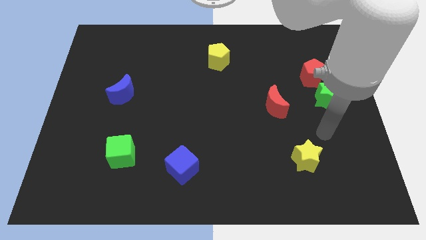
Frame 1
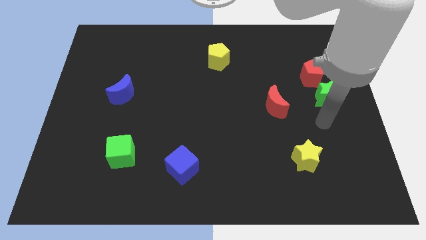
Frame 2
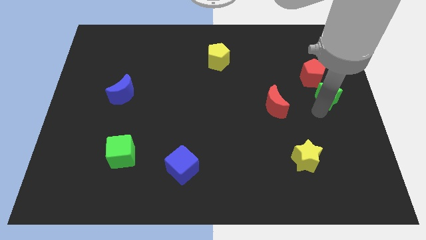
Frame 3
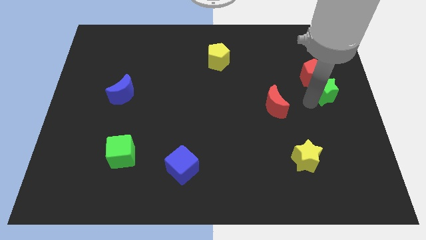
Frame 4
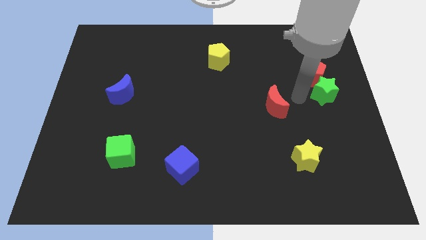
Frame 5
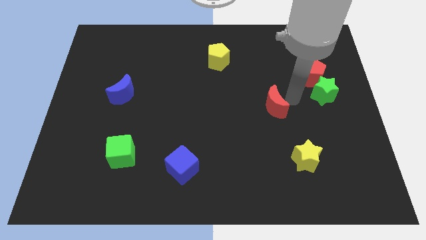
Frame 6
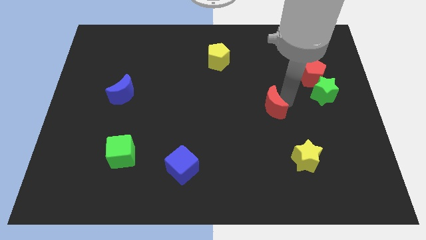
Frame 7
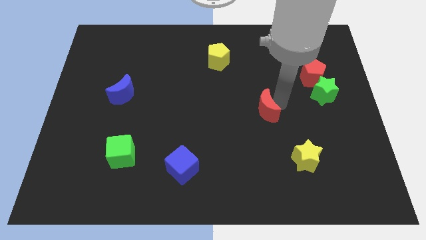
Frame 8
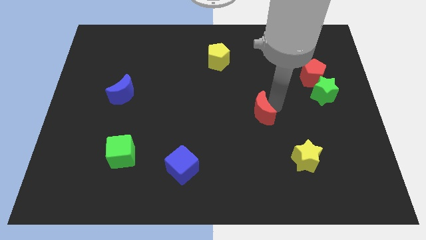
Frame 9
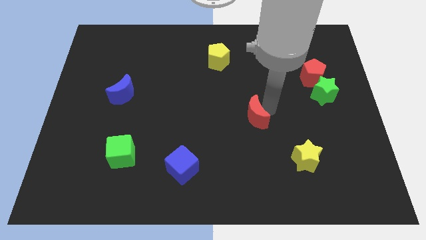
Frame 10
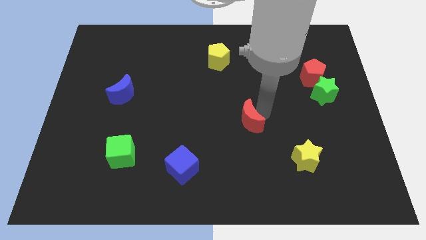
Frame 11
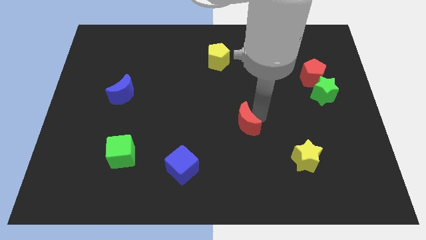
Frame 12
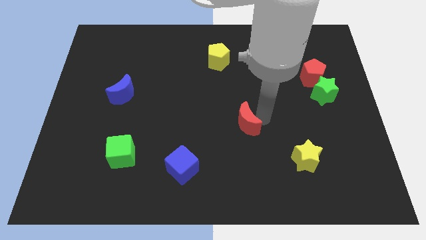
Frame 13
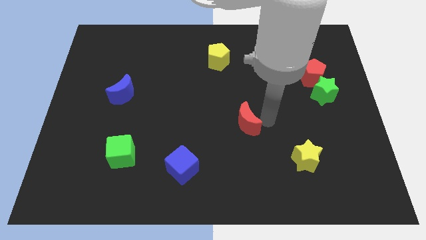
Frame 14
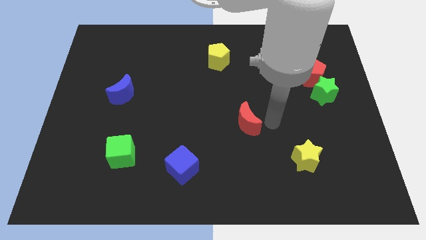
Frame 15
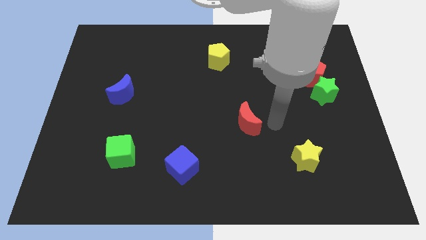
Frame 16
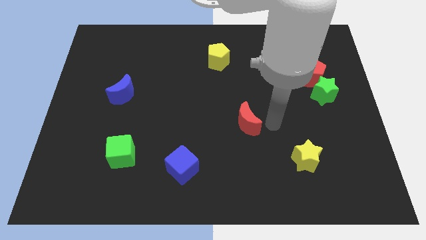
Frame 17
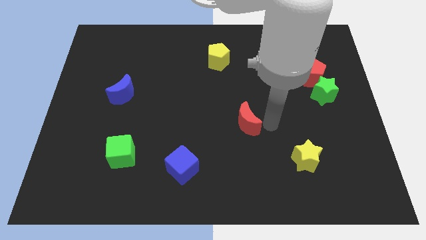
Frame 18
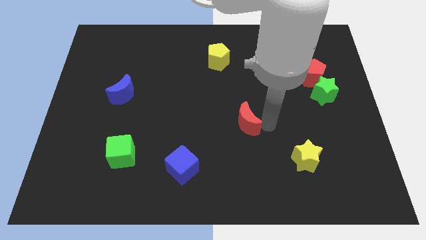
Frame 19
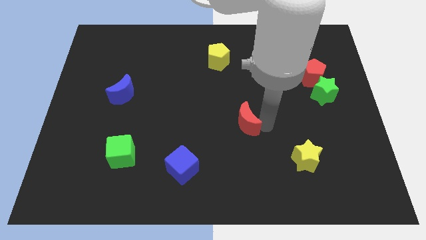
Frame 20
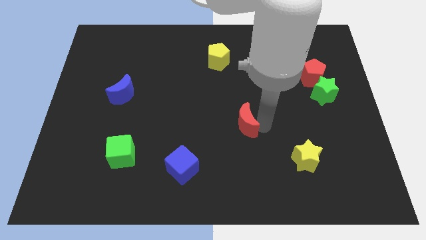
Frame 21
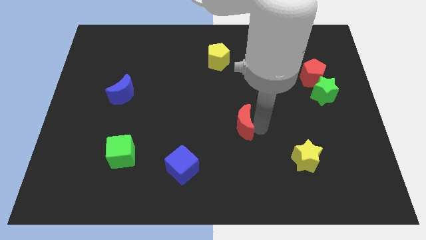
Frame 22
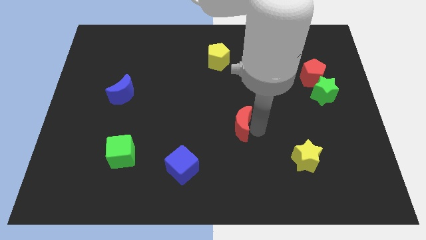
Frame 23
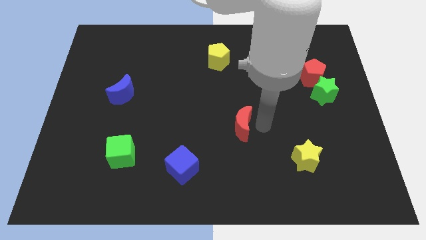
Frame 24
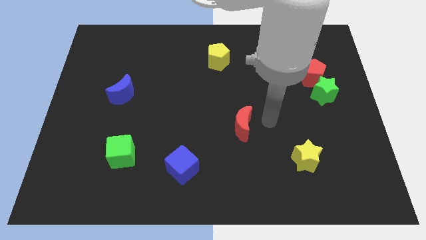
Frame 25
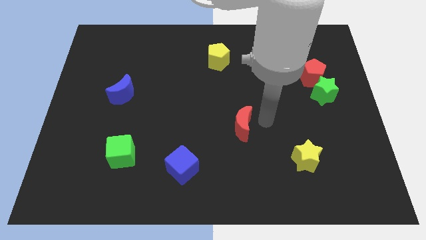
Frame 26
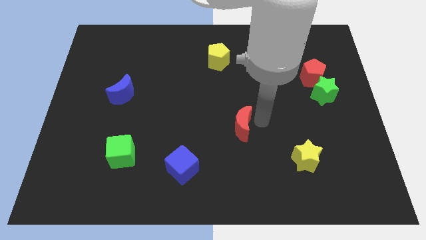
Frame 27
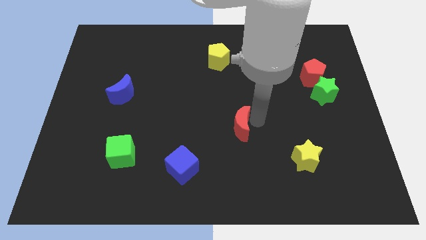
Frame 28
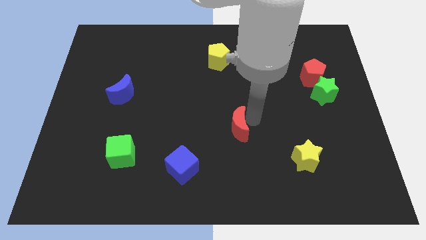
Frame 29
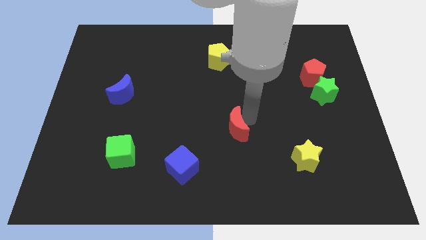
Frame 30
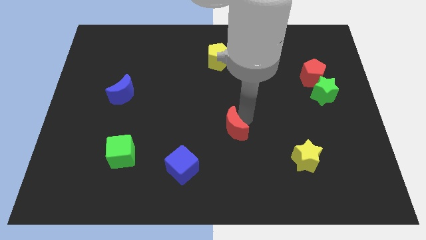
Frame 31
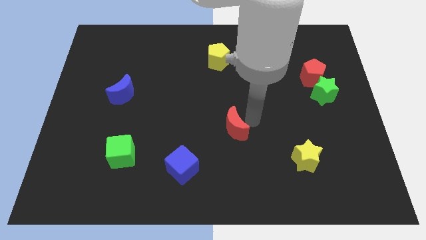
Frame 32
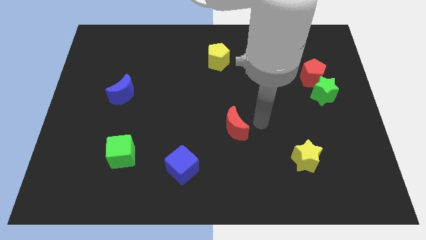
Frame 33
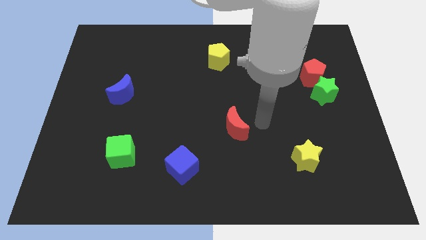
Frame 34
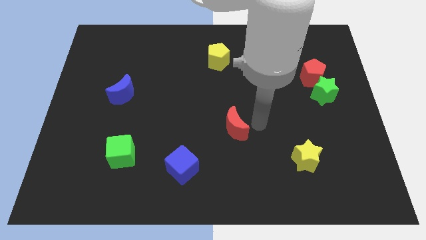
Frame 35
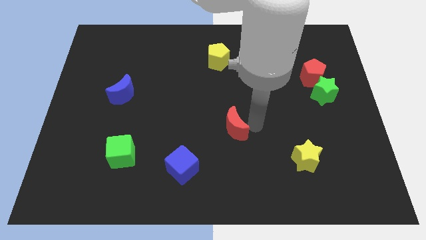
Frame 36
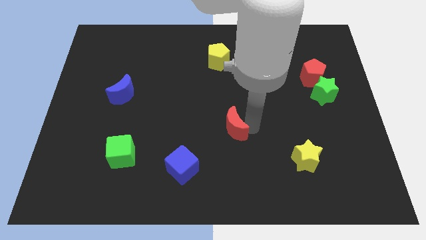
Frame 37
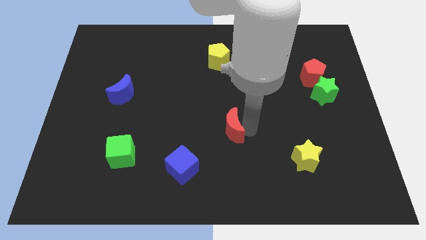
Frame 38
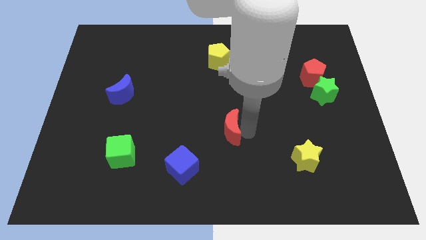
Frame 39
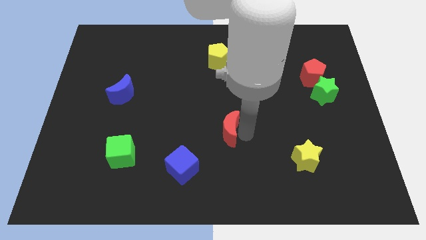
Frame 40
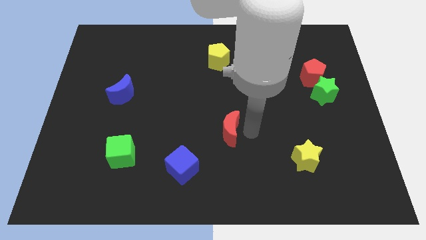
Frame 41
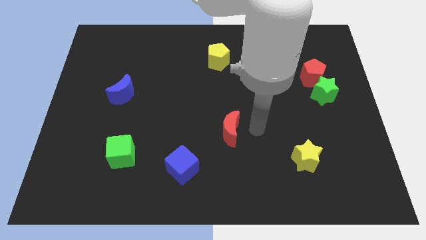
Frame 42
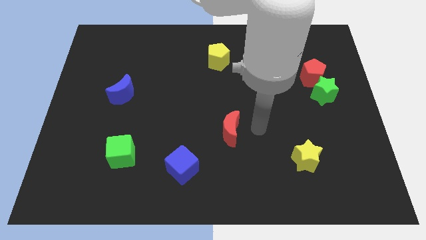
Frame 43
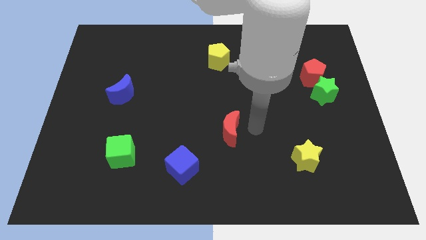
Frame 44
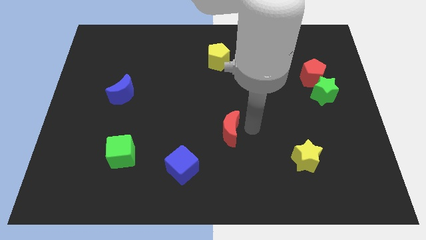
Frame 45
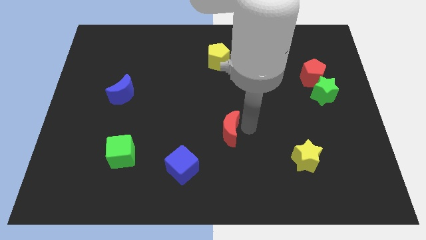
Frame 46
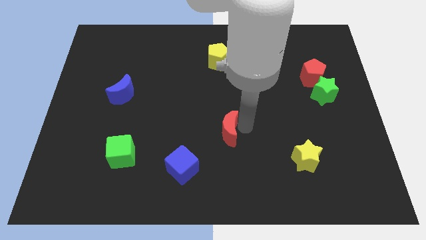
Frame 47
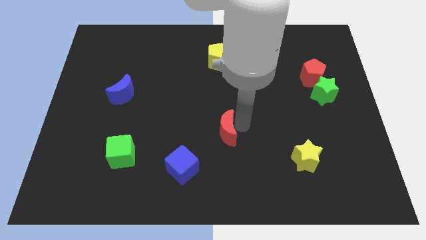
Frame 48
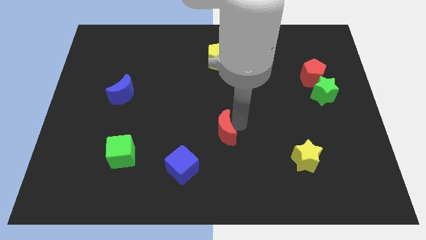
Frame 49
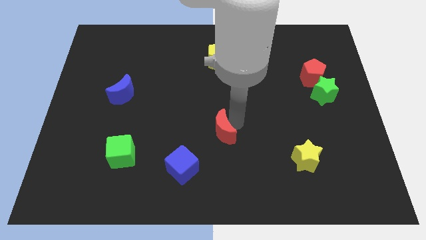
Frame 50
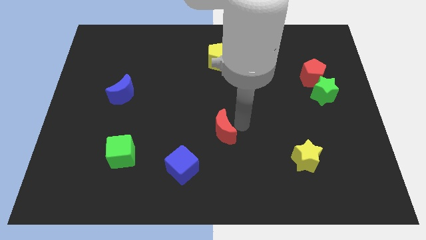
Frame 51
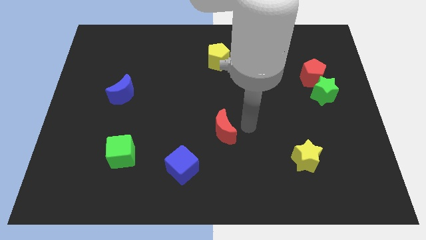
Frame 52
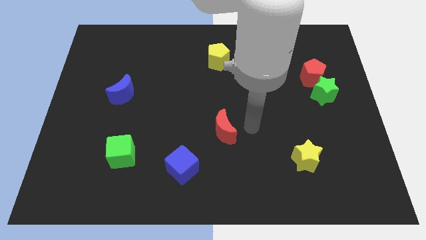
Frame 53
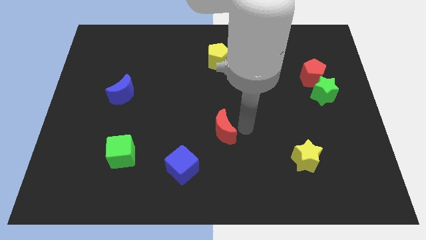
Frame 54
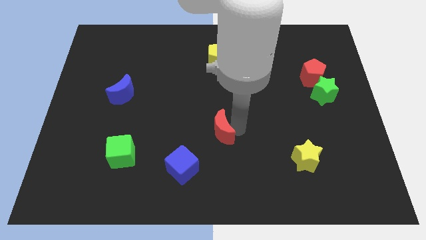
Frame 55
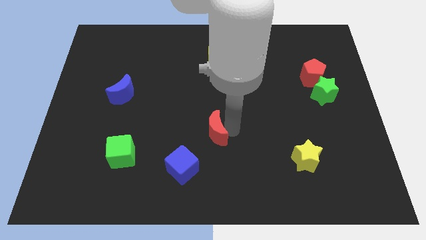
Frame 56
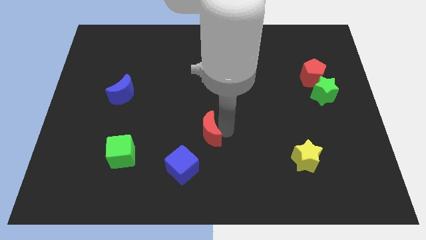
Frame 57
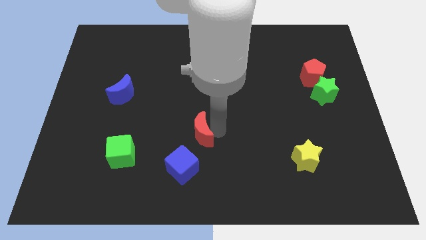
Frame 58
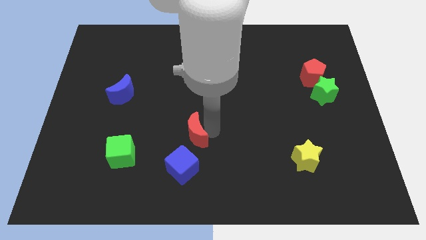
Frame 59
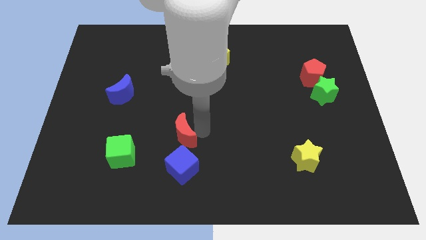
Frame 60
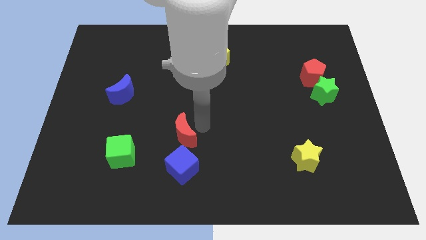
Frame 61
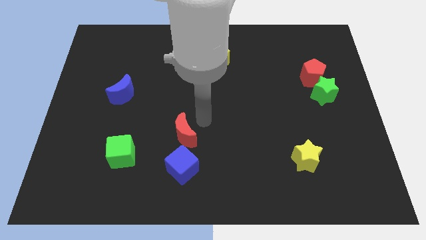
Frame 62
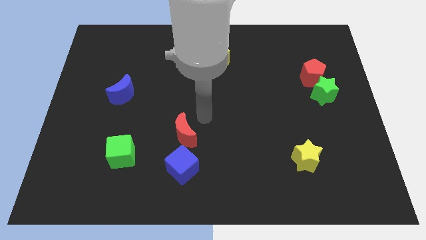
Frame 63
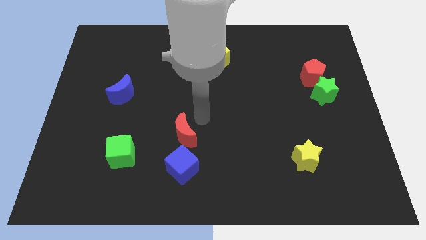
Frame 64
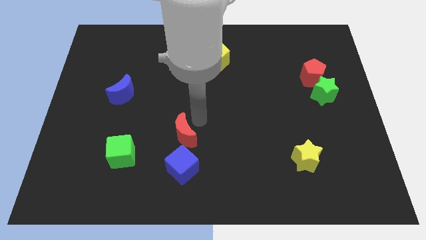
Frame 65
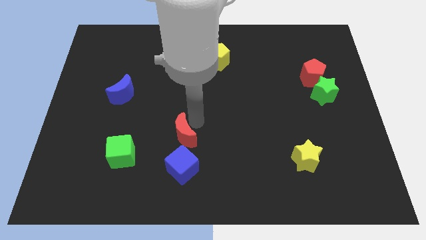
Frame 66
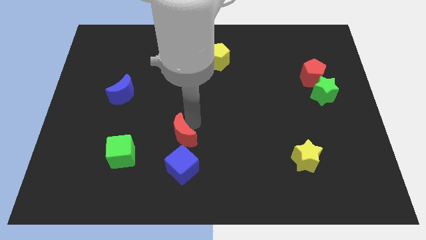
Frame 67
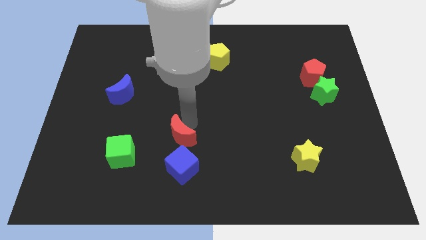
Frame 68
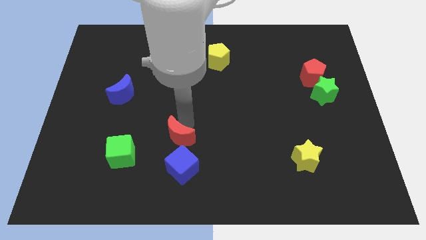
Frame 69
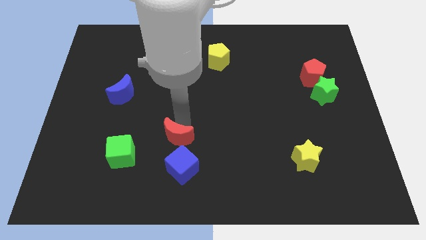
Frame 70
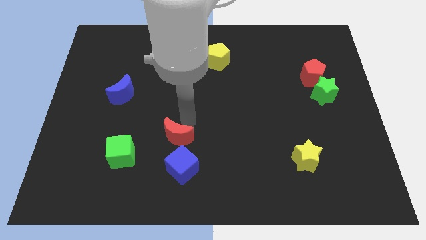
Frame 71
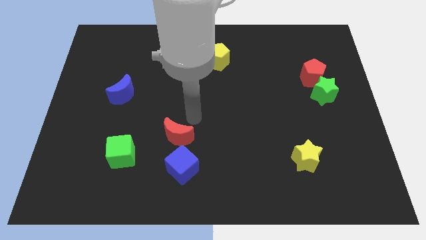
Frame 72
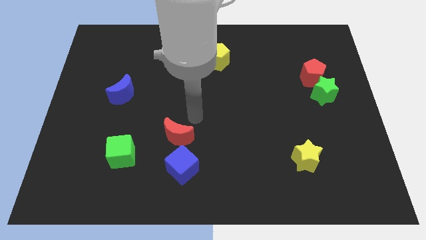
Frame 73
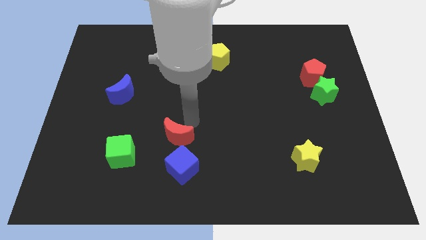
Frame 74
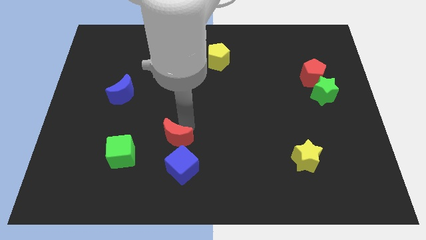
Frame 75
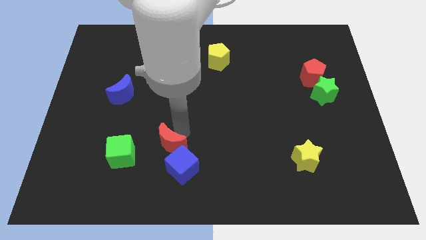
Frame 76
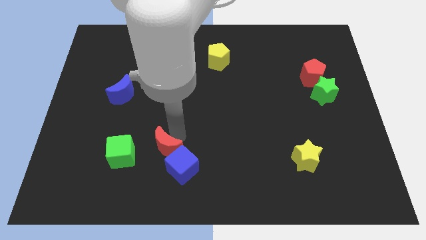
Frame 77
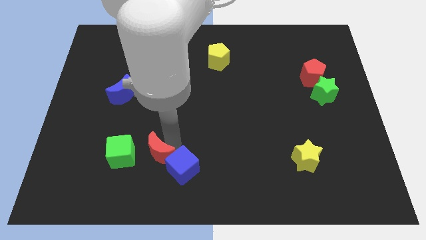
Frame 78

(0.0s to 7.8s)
slide the red moon to the left of the blue cube
